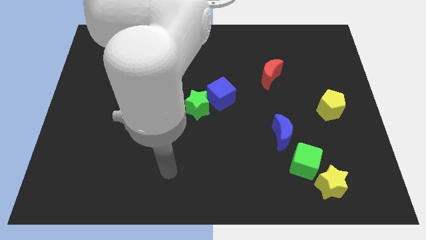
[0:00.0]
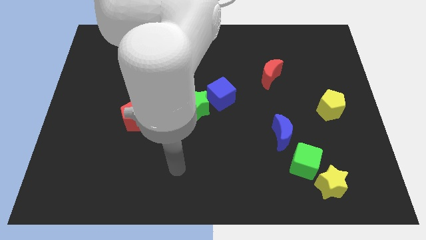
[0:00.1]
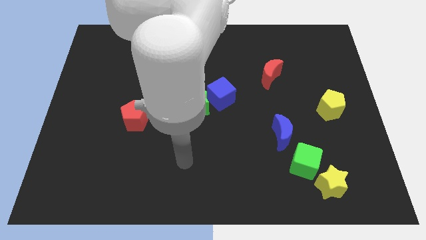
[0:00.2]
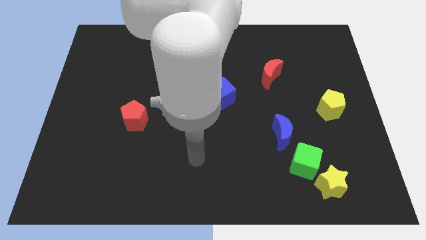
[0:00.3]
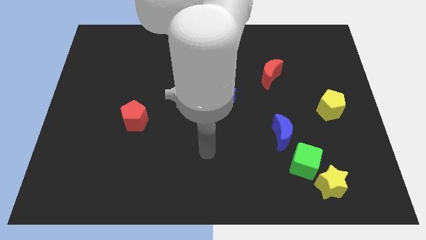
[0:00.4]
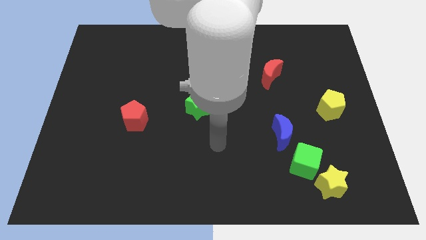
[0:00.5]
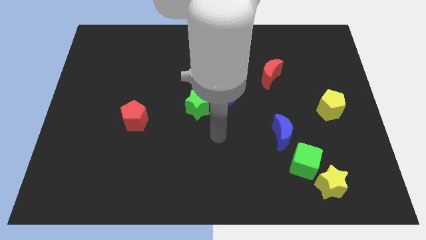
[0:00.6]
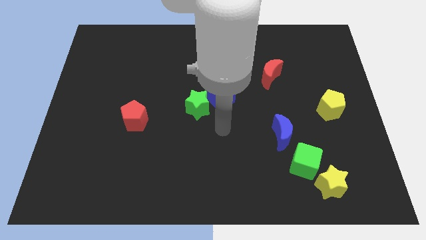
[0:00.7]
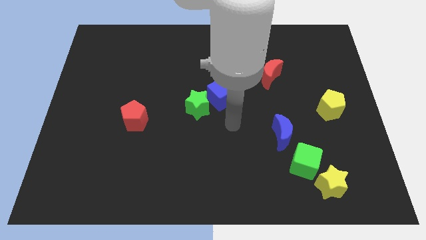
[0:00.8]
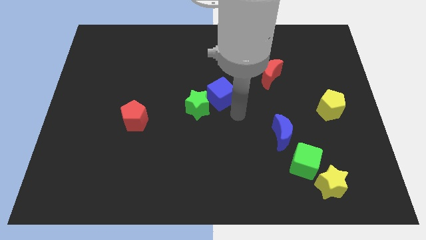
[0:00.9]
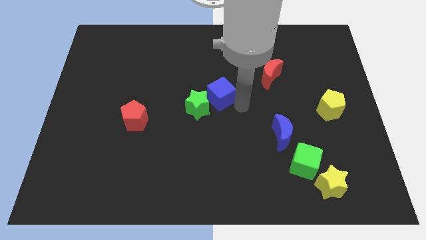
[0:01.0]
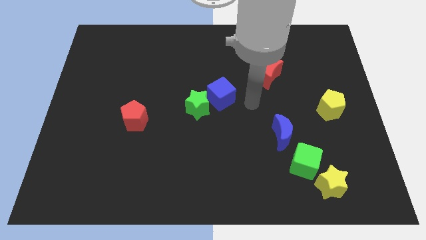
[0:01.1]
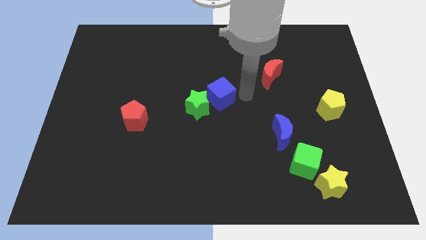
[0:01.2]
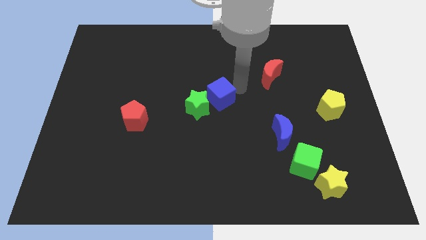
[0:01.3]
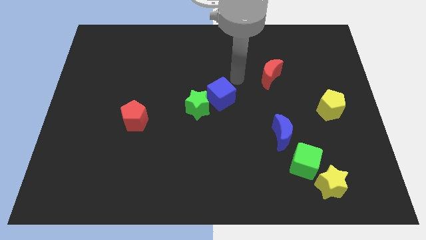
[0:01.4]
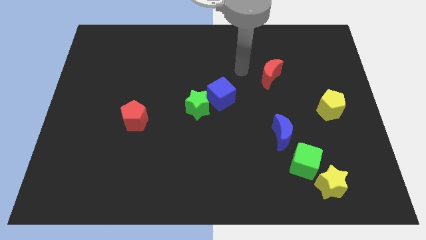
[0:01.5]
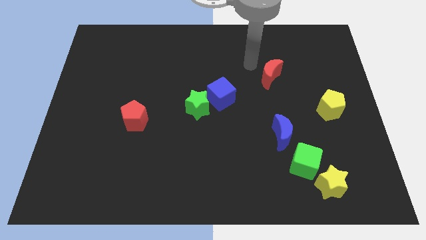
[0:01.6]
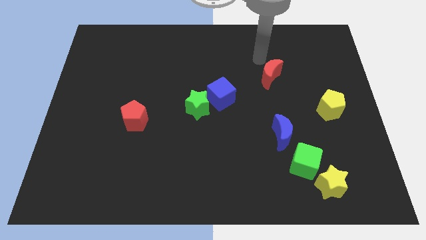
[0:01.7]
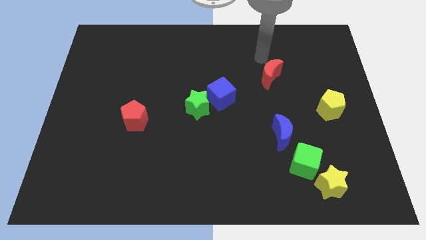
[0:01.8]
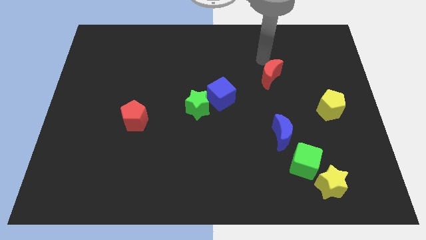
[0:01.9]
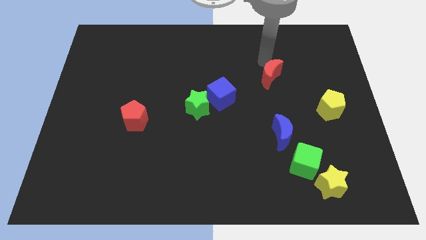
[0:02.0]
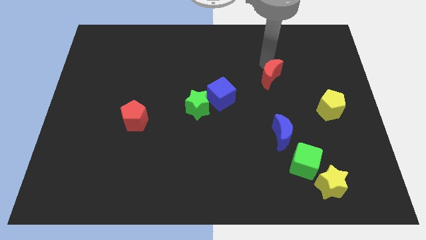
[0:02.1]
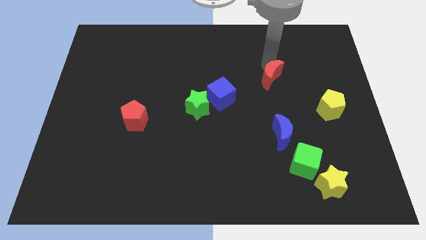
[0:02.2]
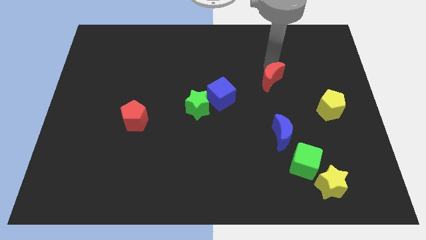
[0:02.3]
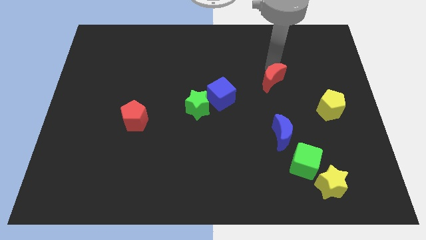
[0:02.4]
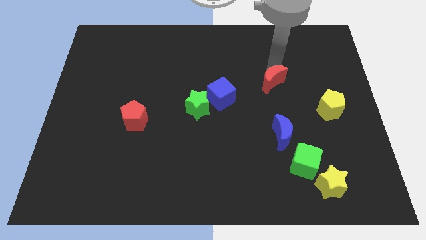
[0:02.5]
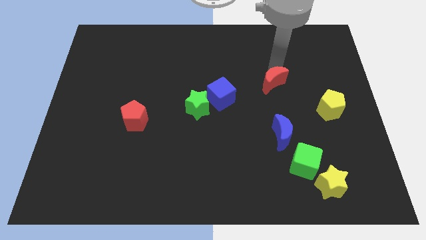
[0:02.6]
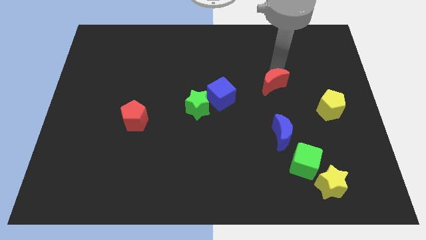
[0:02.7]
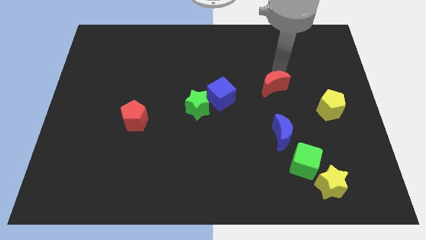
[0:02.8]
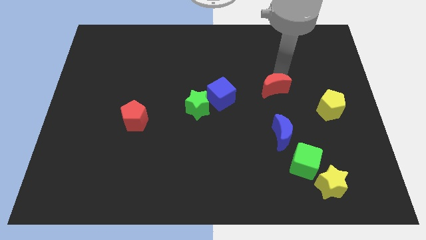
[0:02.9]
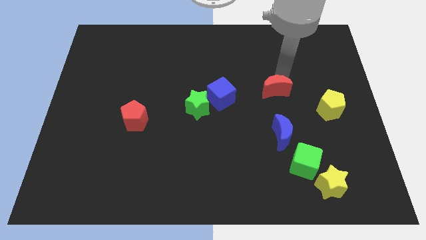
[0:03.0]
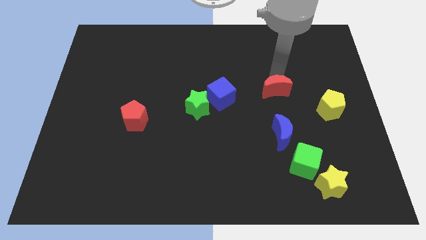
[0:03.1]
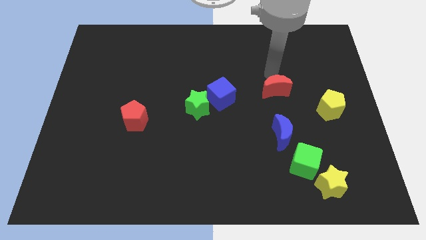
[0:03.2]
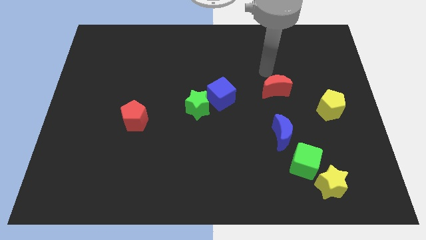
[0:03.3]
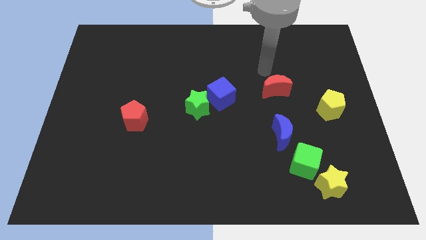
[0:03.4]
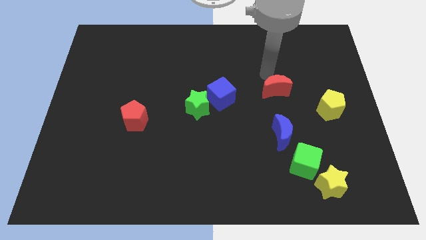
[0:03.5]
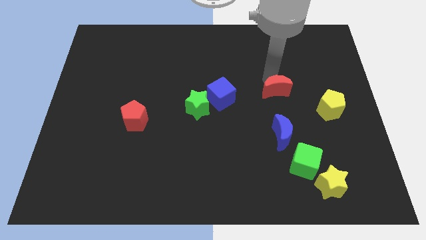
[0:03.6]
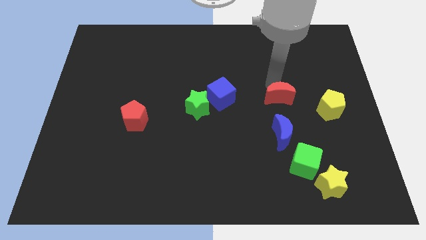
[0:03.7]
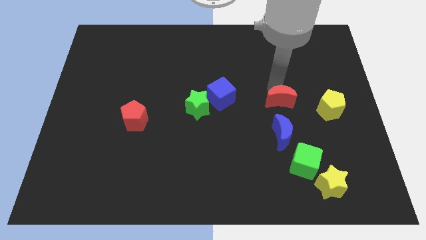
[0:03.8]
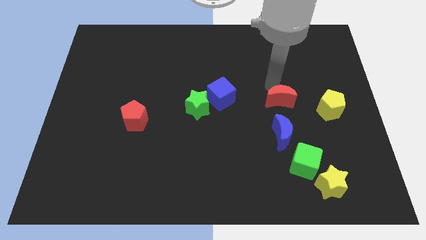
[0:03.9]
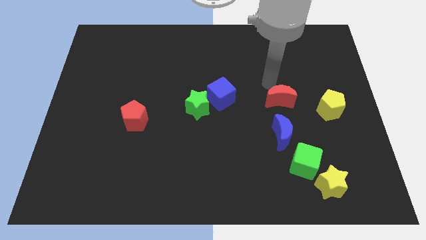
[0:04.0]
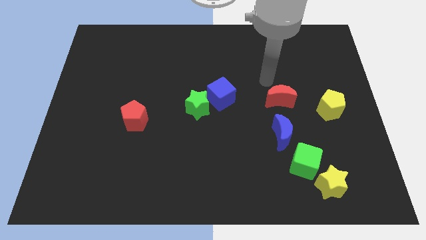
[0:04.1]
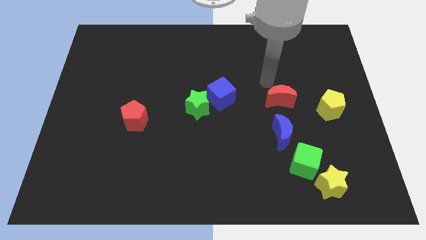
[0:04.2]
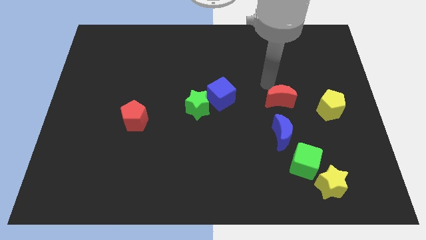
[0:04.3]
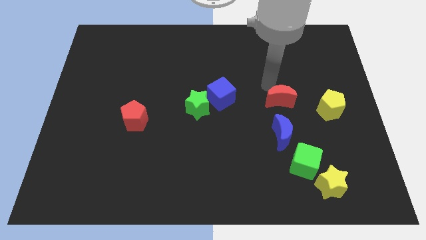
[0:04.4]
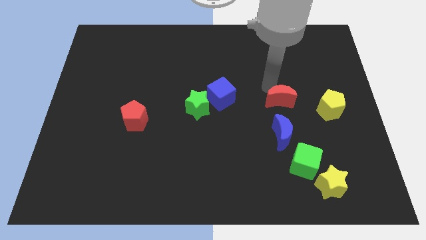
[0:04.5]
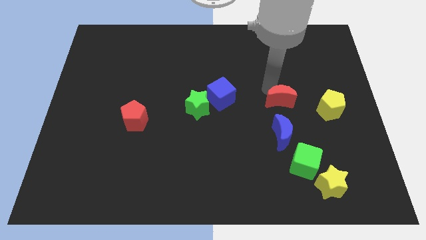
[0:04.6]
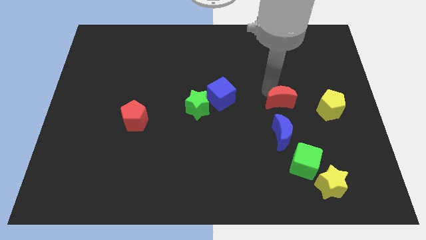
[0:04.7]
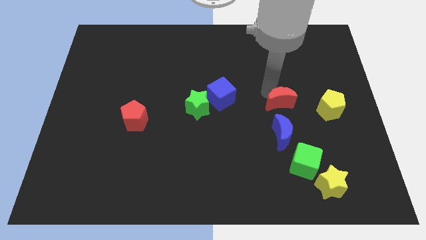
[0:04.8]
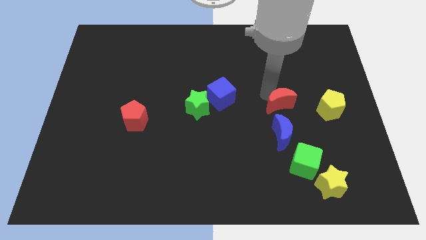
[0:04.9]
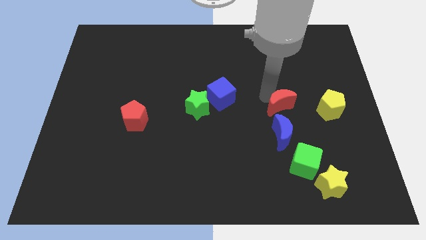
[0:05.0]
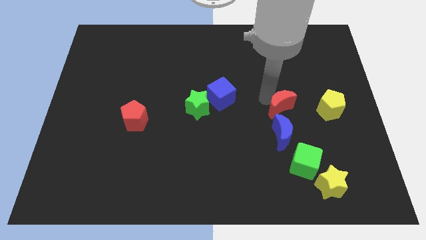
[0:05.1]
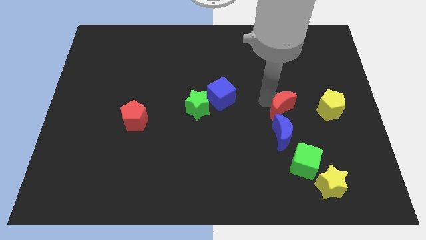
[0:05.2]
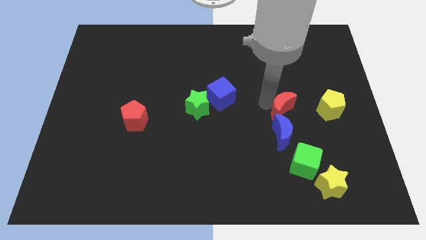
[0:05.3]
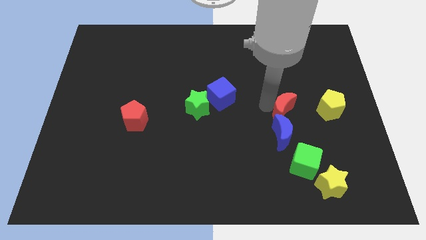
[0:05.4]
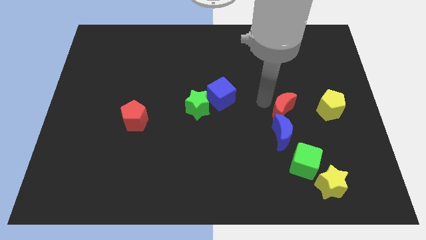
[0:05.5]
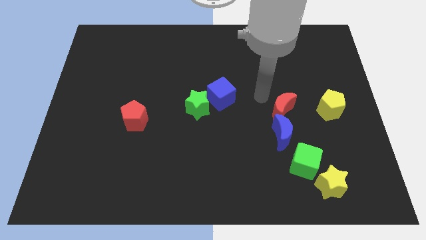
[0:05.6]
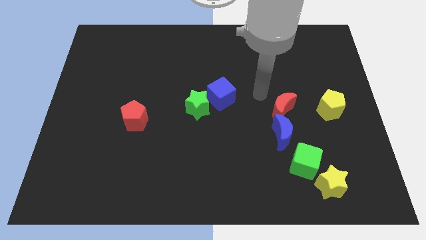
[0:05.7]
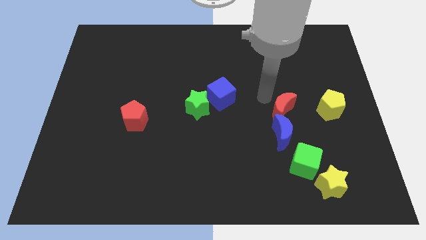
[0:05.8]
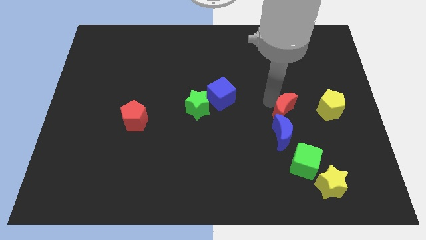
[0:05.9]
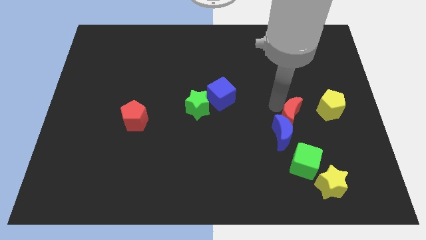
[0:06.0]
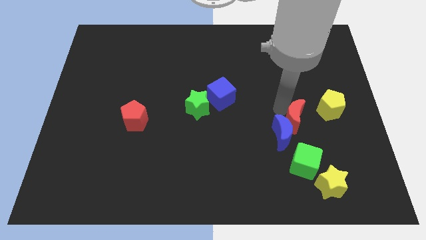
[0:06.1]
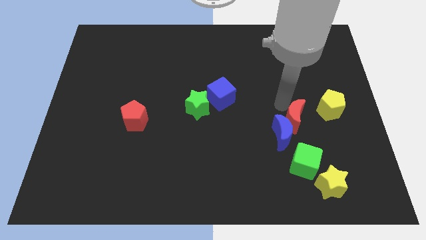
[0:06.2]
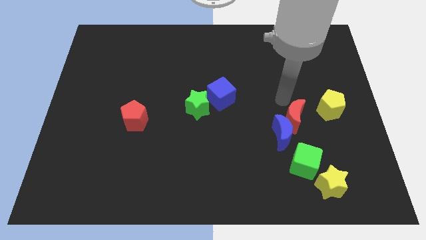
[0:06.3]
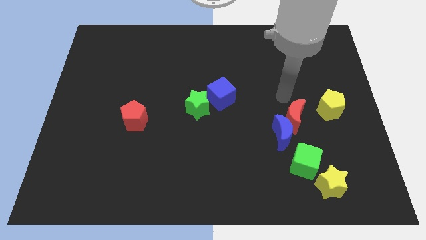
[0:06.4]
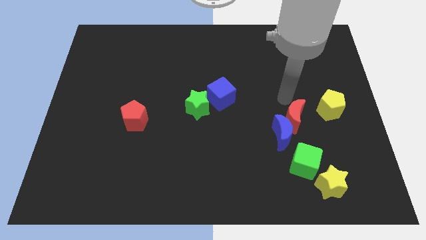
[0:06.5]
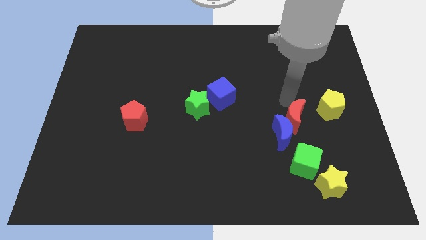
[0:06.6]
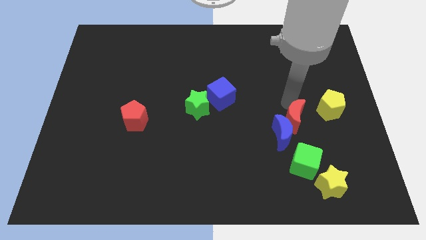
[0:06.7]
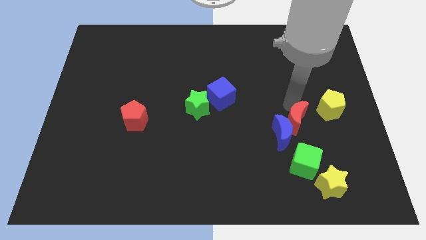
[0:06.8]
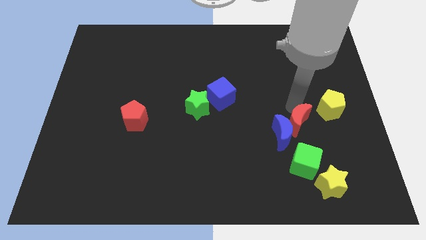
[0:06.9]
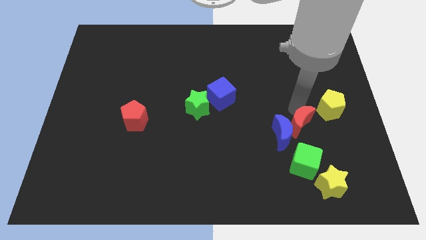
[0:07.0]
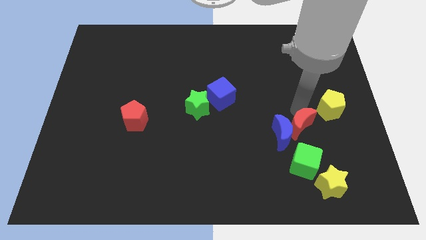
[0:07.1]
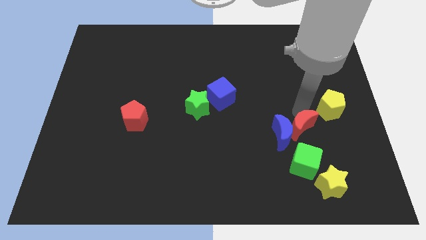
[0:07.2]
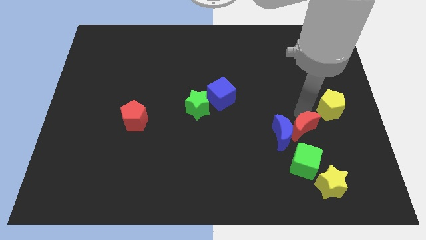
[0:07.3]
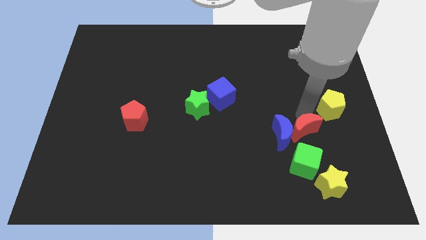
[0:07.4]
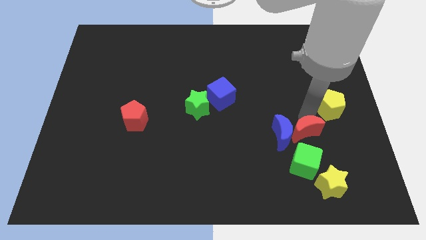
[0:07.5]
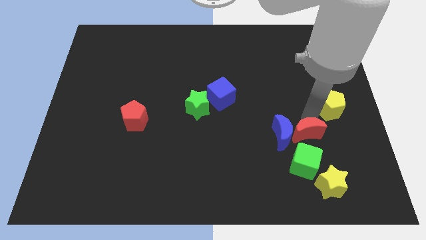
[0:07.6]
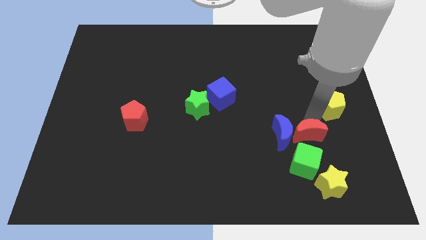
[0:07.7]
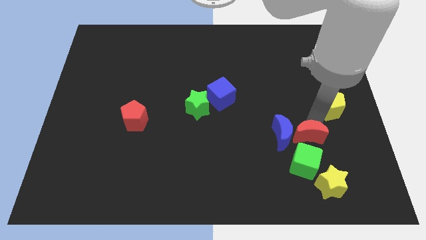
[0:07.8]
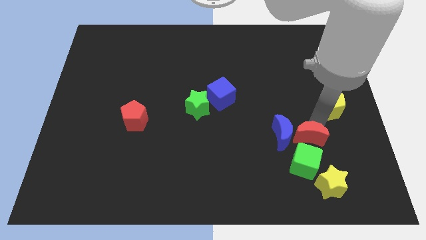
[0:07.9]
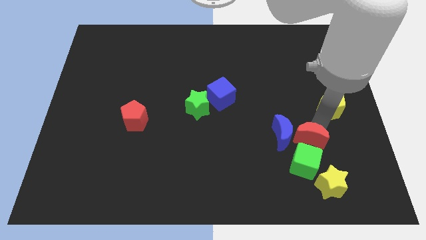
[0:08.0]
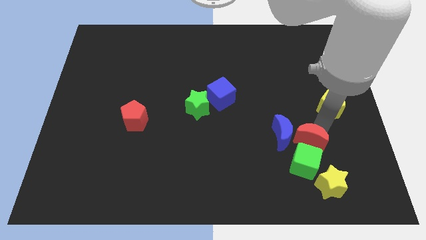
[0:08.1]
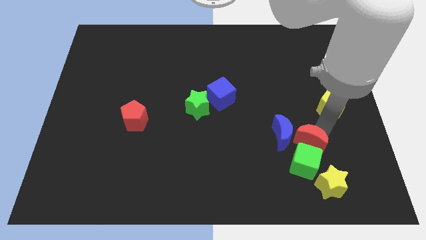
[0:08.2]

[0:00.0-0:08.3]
move the red moon towards the green cube
